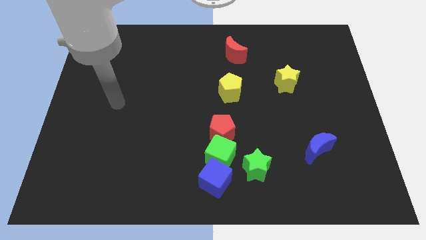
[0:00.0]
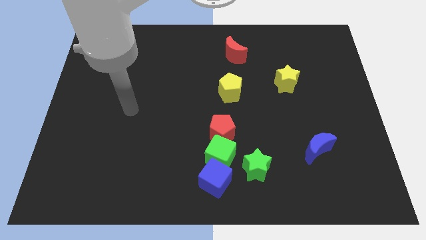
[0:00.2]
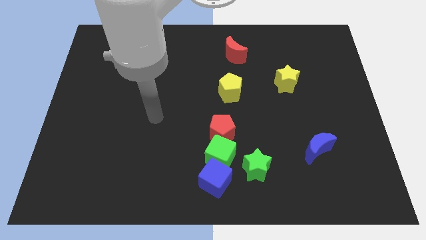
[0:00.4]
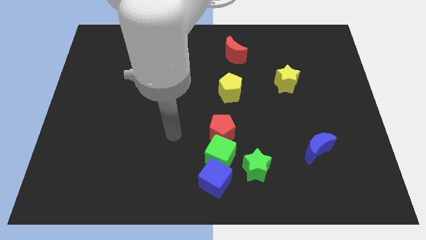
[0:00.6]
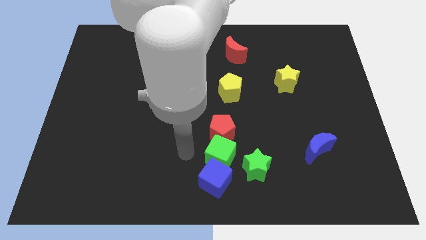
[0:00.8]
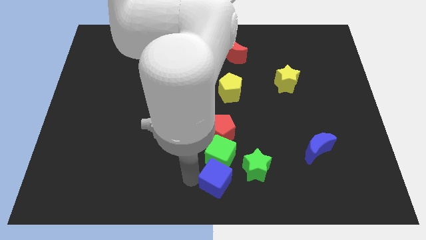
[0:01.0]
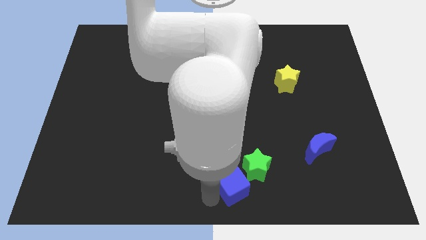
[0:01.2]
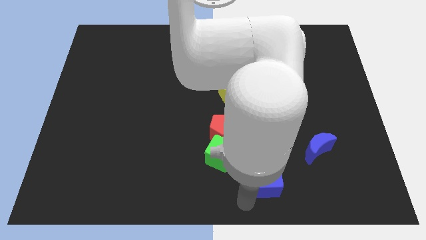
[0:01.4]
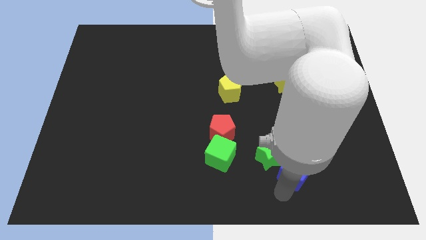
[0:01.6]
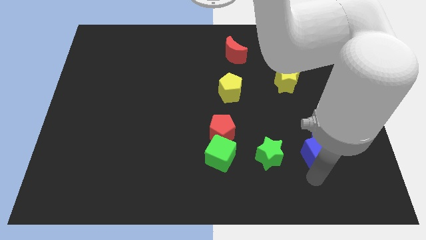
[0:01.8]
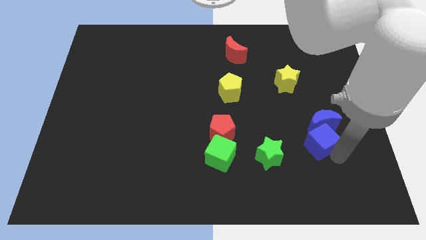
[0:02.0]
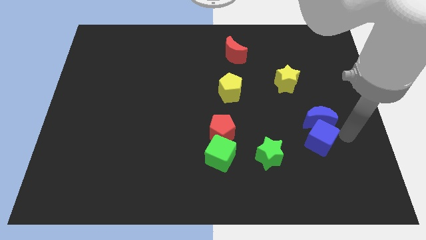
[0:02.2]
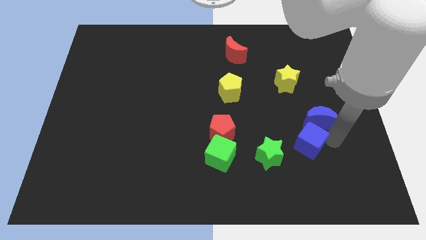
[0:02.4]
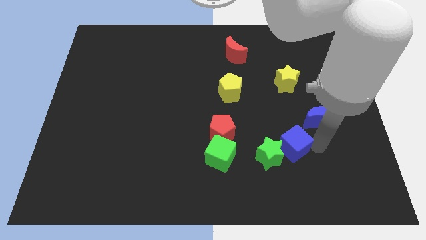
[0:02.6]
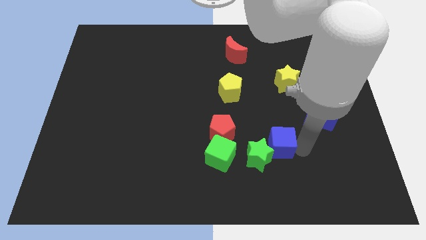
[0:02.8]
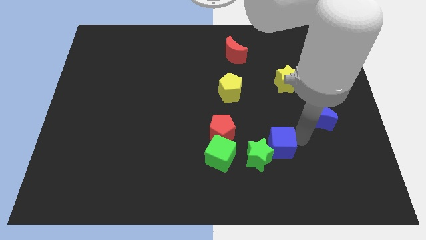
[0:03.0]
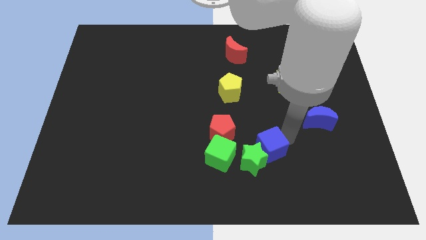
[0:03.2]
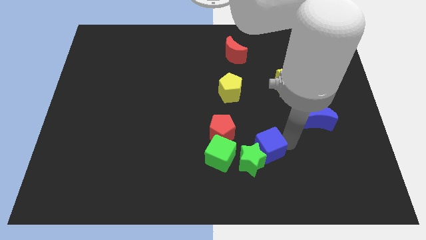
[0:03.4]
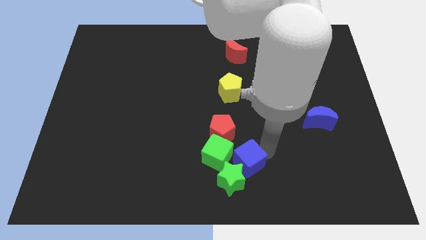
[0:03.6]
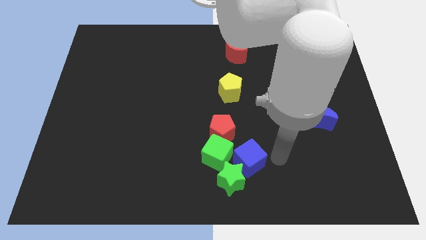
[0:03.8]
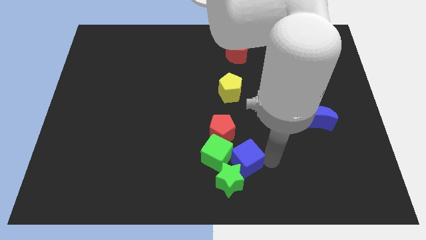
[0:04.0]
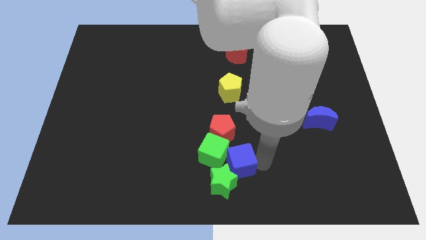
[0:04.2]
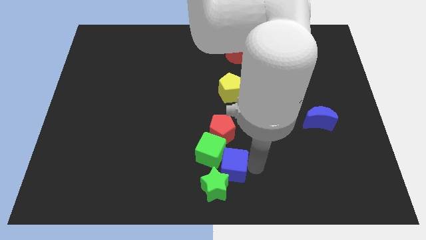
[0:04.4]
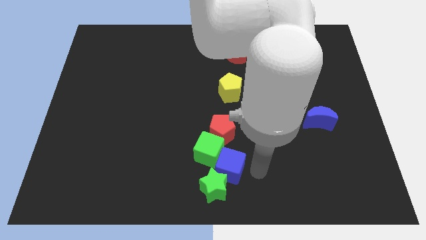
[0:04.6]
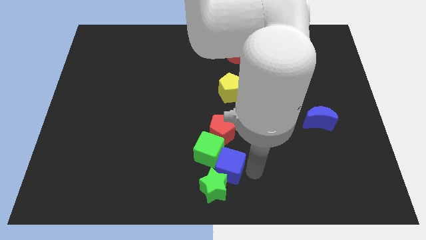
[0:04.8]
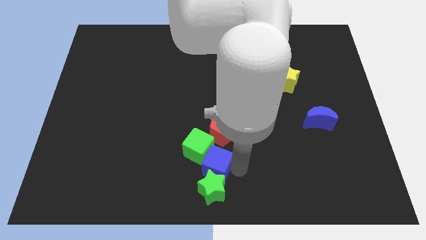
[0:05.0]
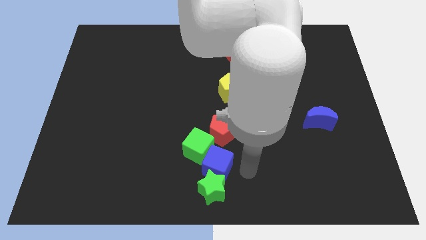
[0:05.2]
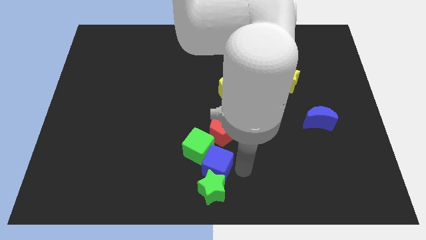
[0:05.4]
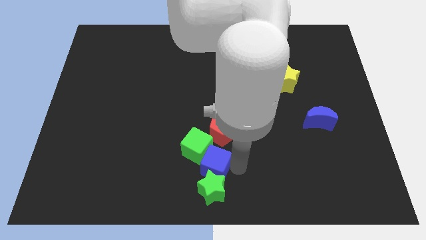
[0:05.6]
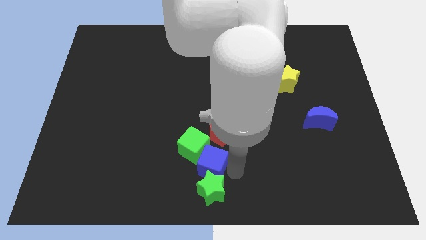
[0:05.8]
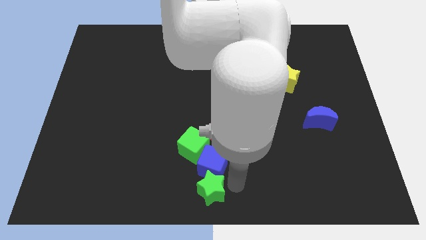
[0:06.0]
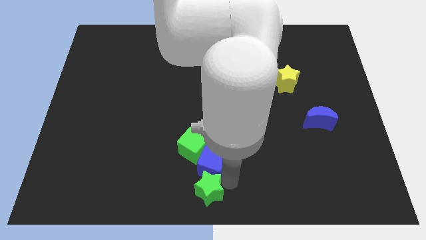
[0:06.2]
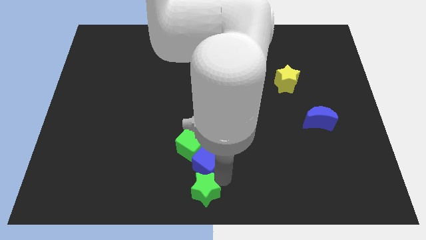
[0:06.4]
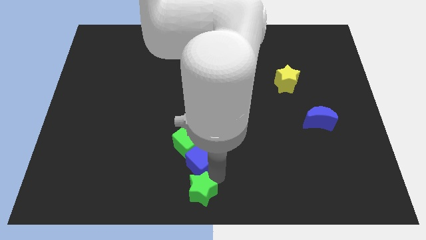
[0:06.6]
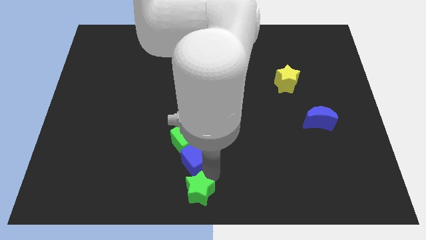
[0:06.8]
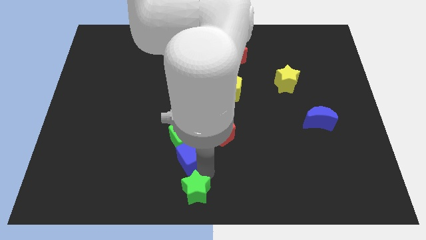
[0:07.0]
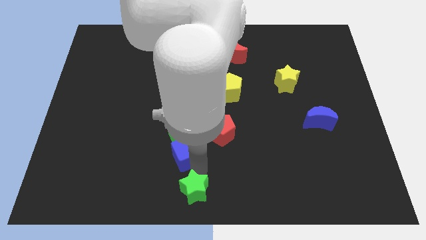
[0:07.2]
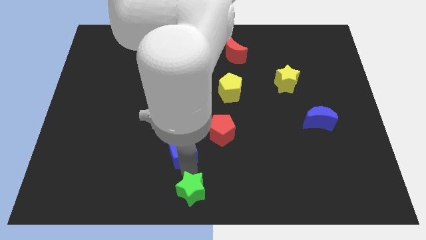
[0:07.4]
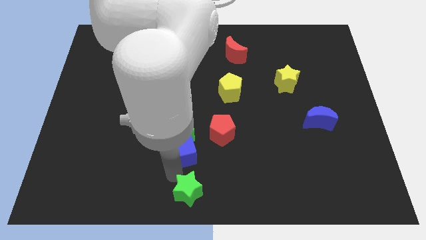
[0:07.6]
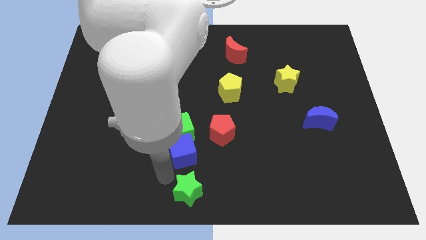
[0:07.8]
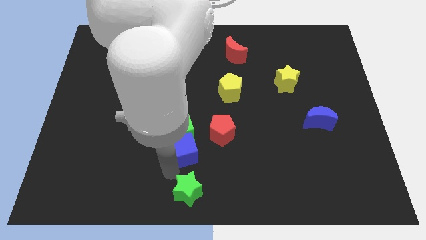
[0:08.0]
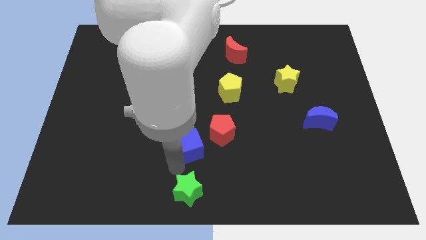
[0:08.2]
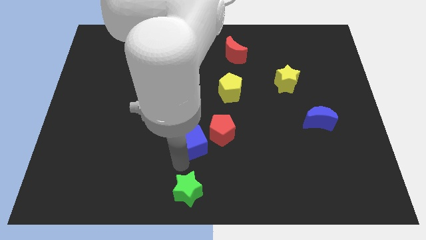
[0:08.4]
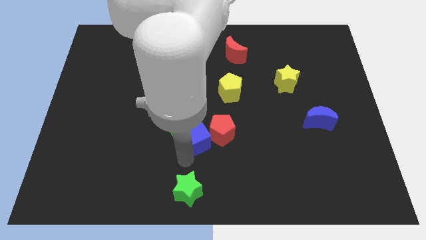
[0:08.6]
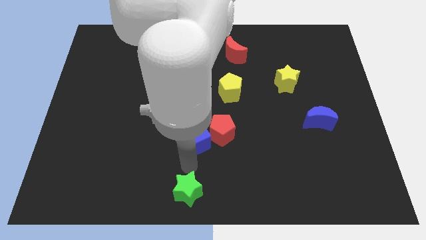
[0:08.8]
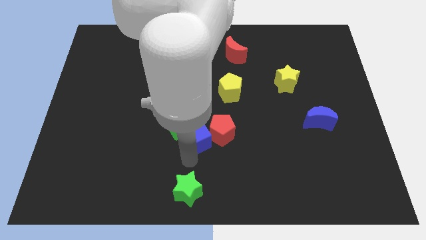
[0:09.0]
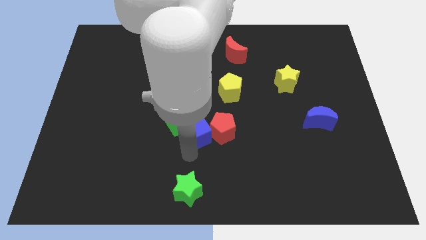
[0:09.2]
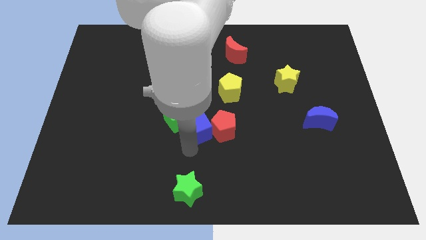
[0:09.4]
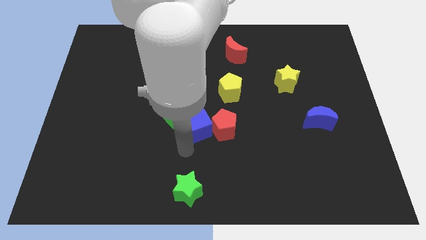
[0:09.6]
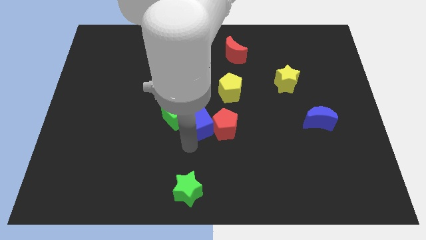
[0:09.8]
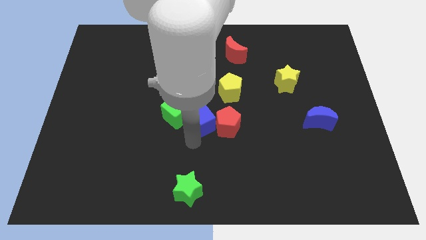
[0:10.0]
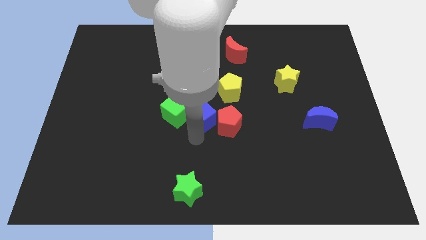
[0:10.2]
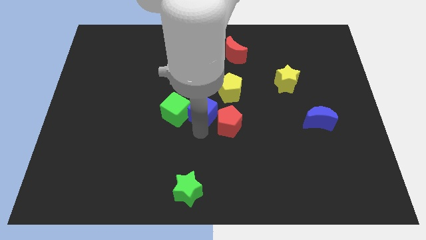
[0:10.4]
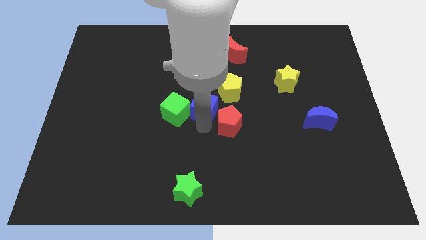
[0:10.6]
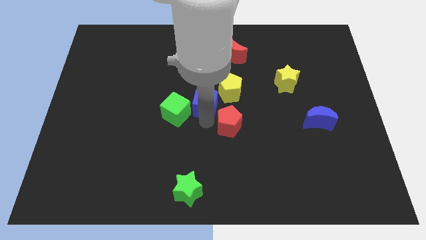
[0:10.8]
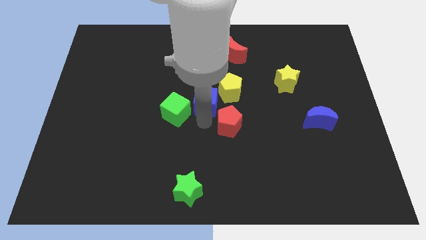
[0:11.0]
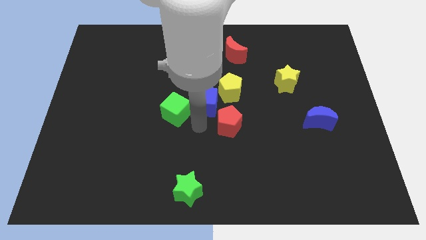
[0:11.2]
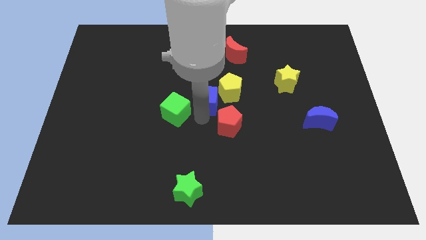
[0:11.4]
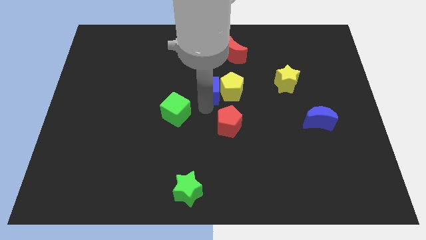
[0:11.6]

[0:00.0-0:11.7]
push the blue cube diagonally up and to the left of the yellow pentagon
